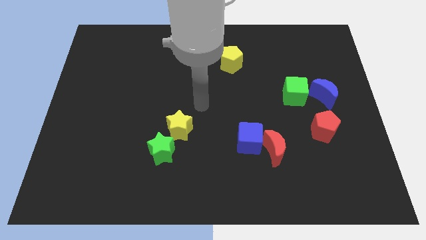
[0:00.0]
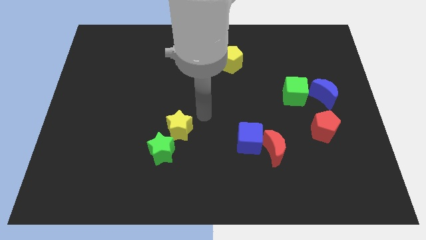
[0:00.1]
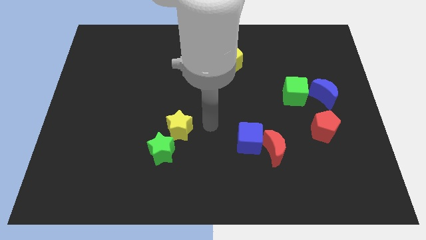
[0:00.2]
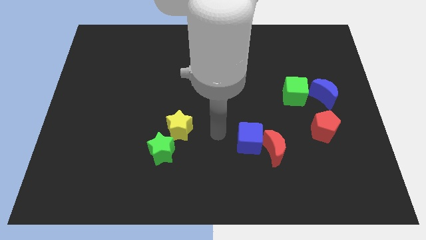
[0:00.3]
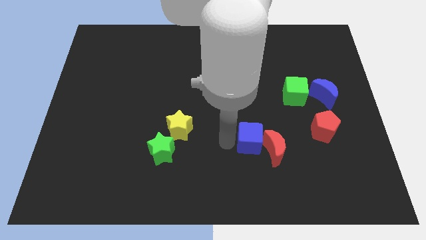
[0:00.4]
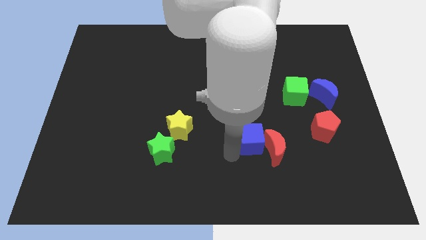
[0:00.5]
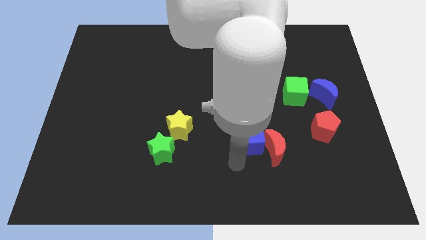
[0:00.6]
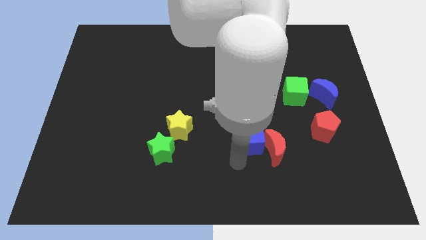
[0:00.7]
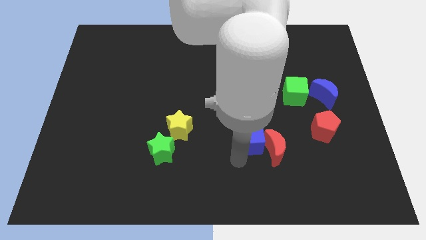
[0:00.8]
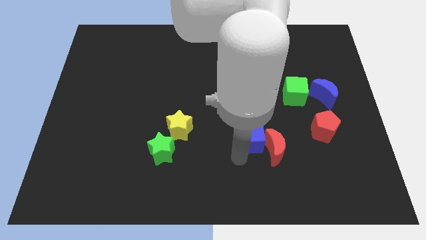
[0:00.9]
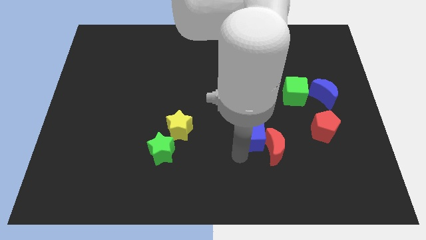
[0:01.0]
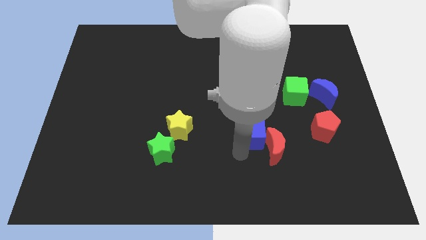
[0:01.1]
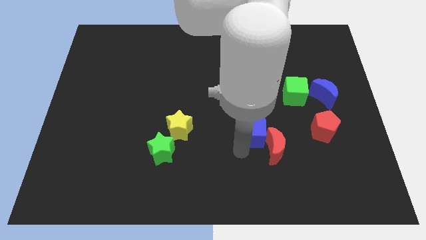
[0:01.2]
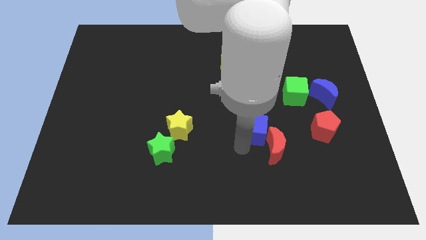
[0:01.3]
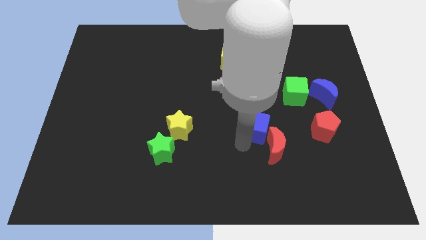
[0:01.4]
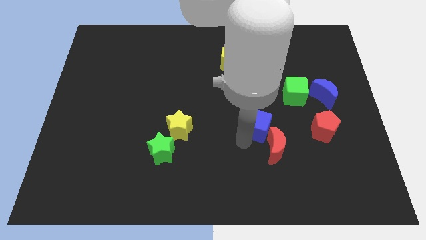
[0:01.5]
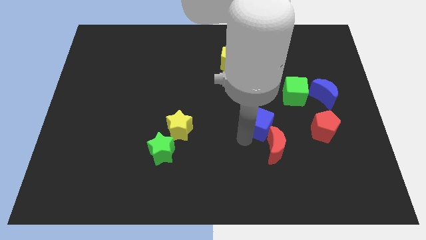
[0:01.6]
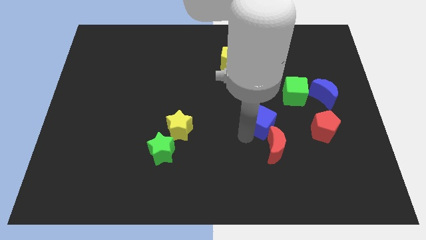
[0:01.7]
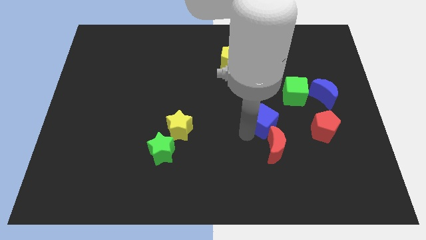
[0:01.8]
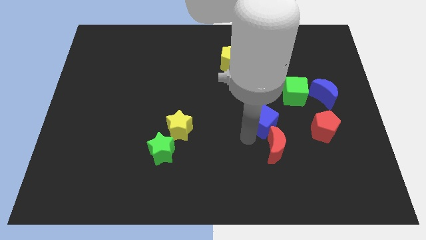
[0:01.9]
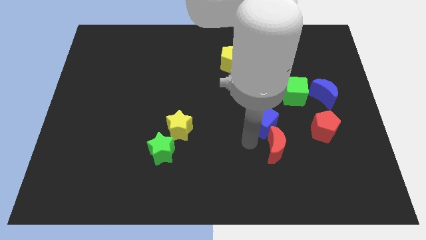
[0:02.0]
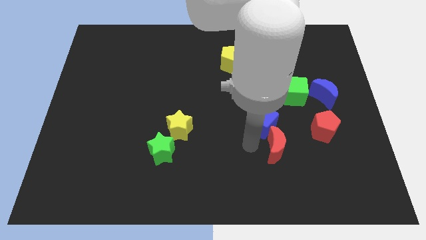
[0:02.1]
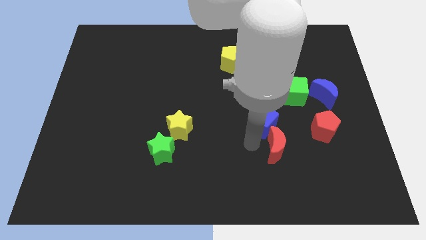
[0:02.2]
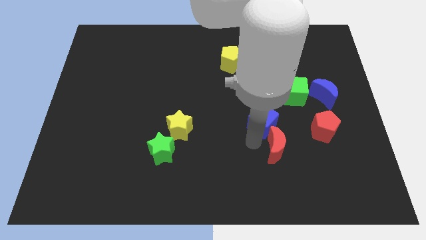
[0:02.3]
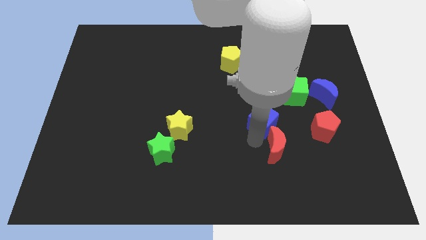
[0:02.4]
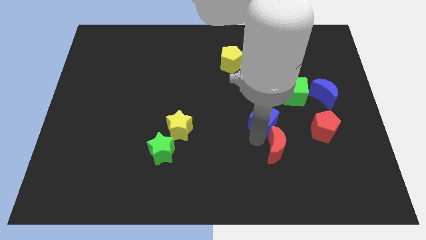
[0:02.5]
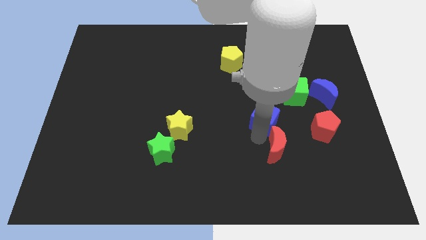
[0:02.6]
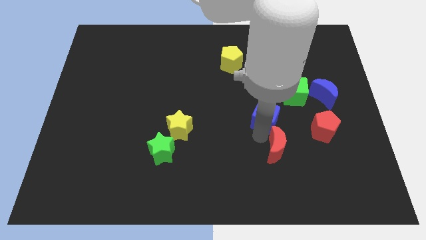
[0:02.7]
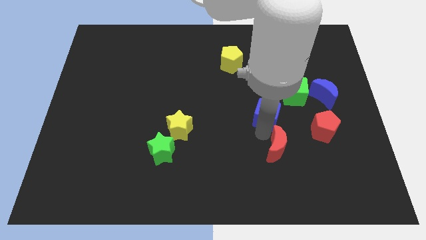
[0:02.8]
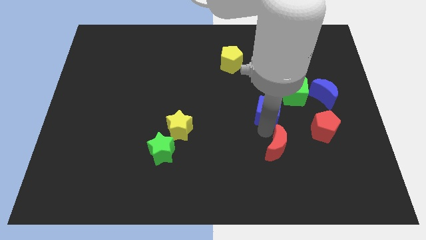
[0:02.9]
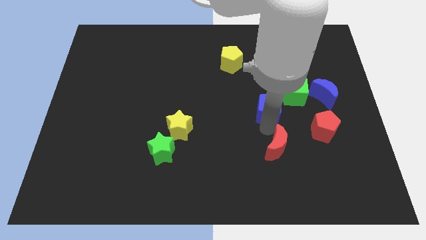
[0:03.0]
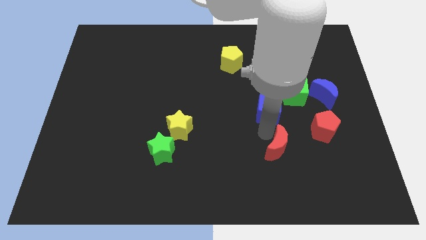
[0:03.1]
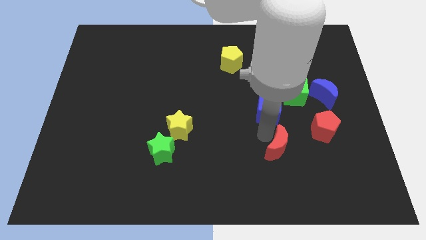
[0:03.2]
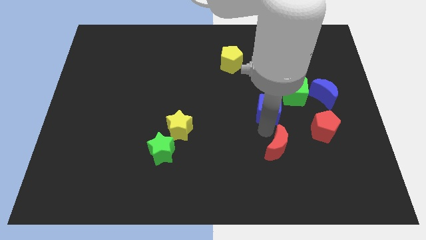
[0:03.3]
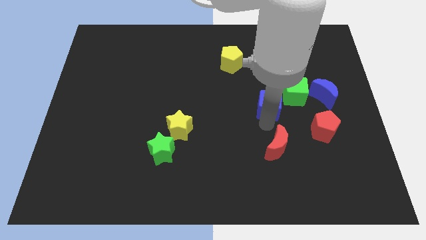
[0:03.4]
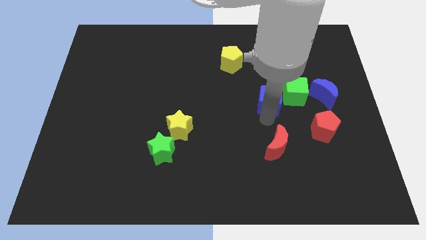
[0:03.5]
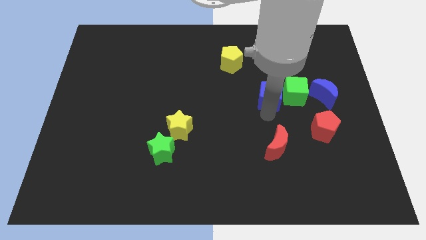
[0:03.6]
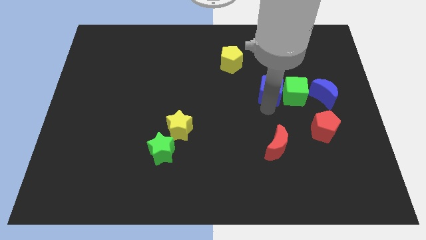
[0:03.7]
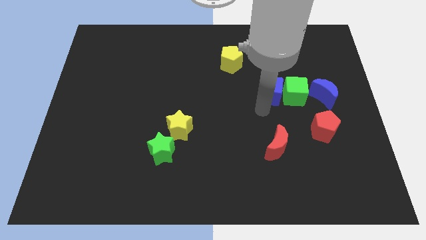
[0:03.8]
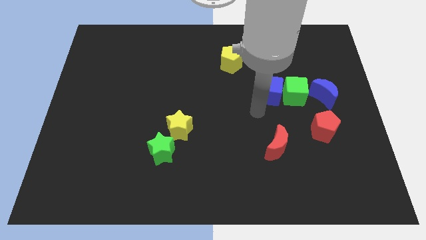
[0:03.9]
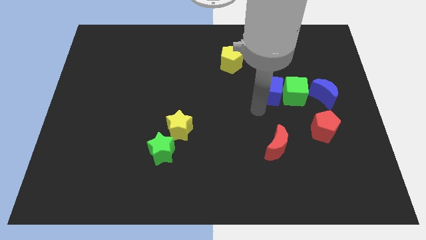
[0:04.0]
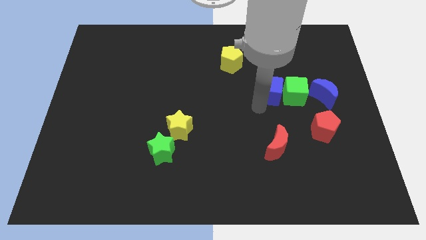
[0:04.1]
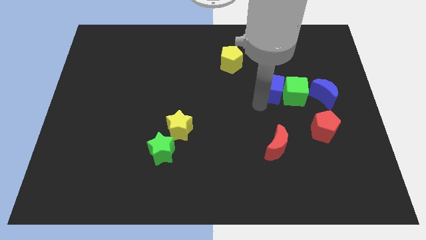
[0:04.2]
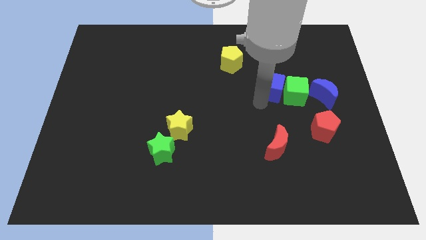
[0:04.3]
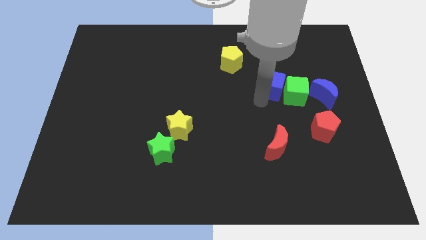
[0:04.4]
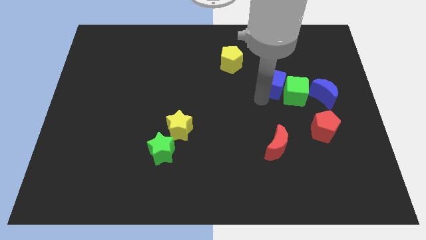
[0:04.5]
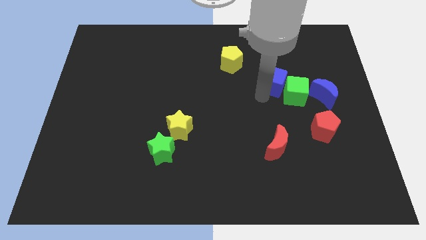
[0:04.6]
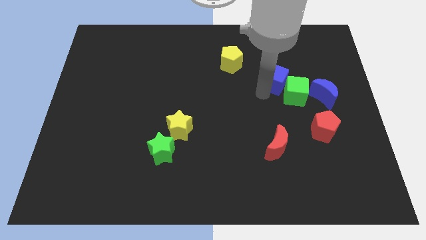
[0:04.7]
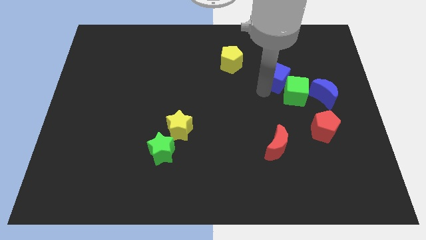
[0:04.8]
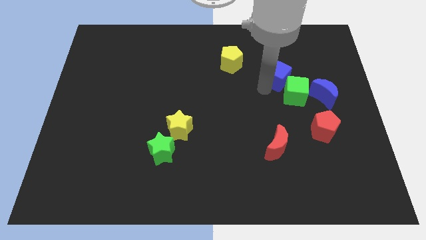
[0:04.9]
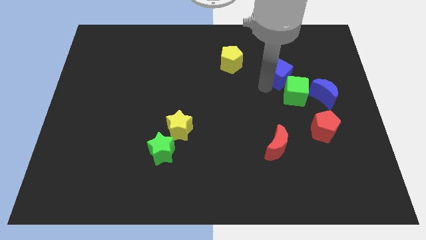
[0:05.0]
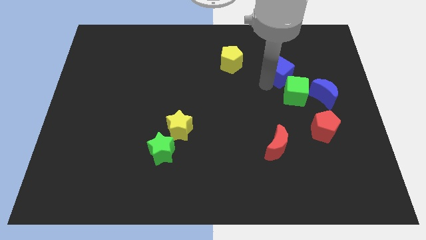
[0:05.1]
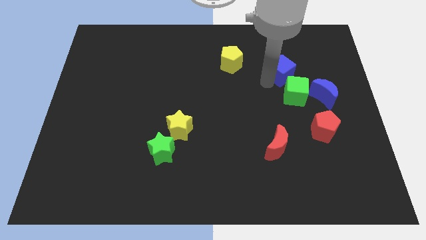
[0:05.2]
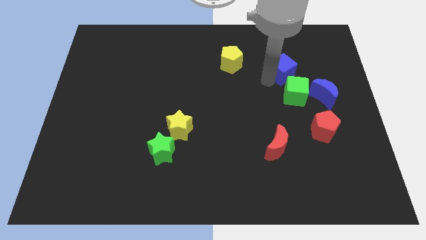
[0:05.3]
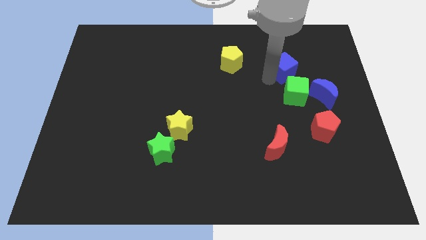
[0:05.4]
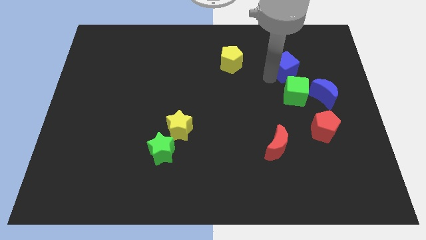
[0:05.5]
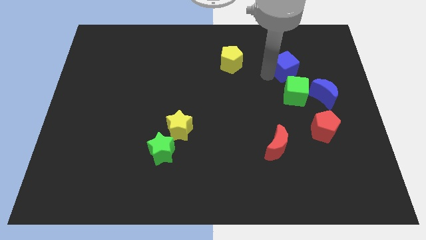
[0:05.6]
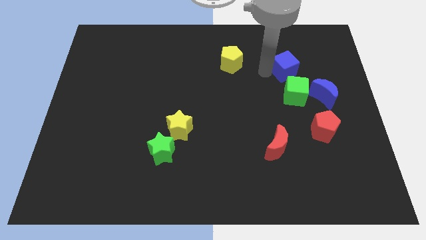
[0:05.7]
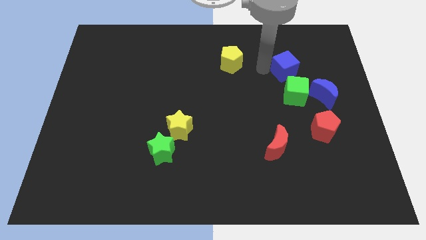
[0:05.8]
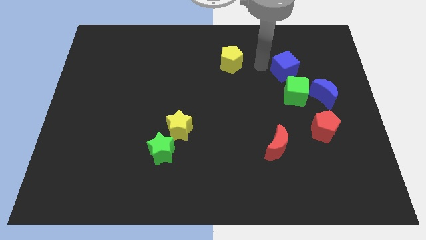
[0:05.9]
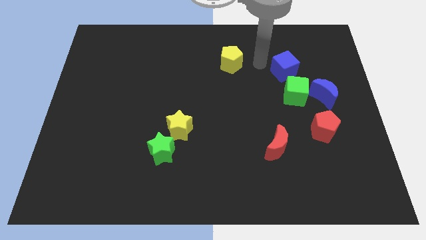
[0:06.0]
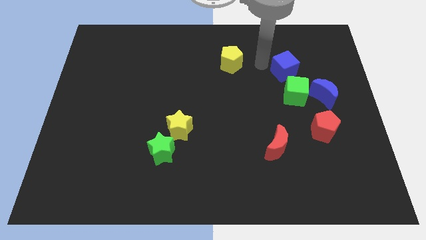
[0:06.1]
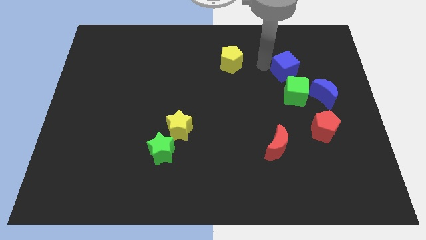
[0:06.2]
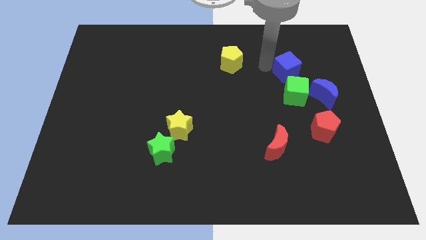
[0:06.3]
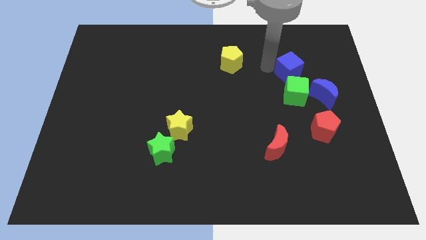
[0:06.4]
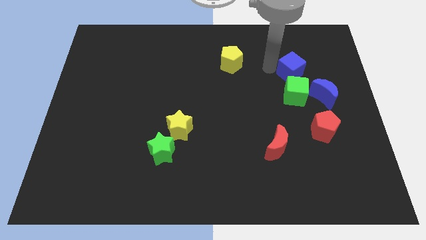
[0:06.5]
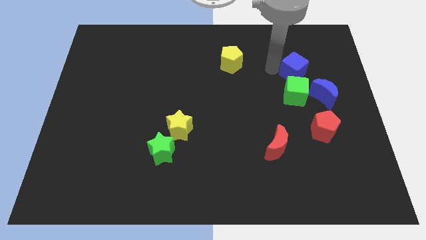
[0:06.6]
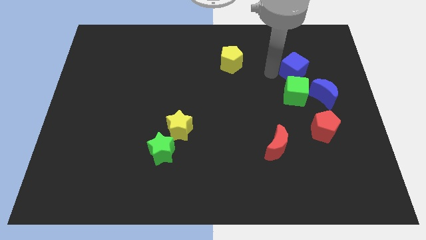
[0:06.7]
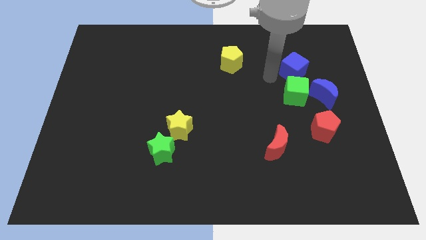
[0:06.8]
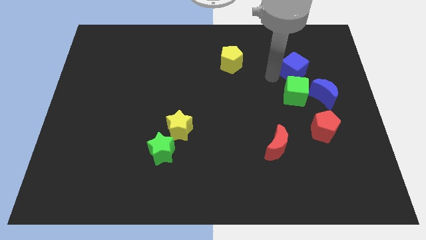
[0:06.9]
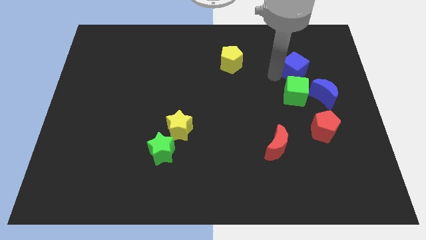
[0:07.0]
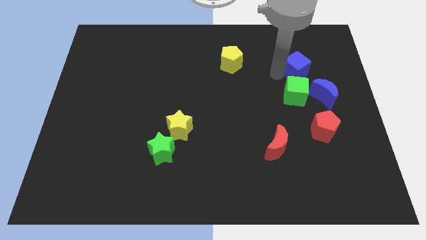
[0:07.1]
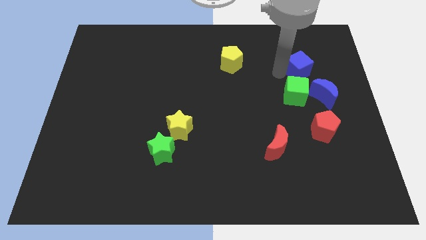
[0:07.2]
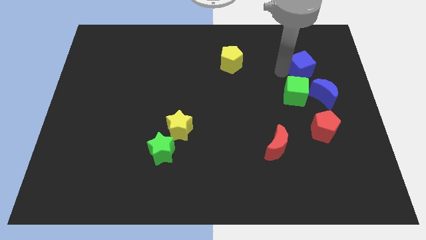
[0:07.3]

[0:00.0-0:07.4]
push the blue cube to the top side of the blue moon

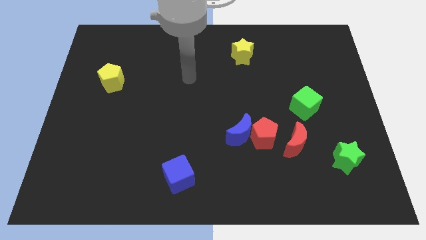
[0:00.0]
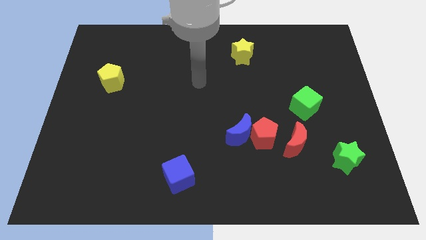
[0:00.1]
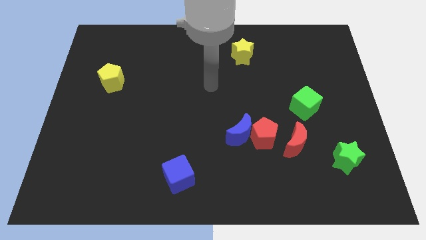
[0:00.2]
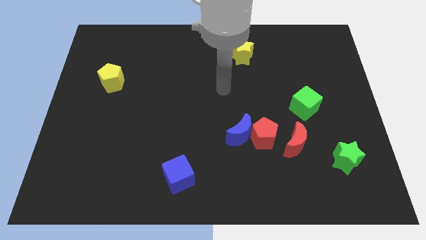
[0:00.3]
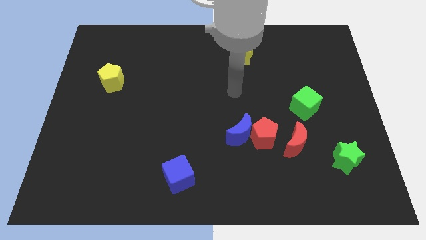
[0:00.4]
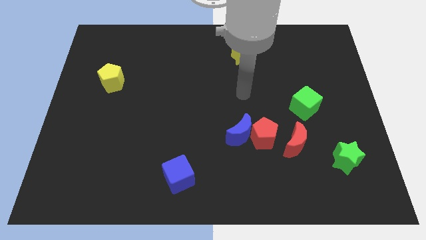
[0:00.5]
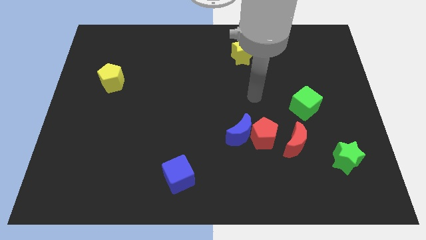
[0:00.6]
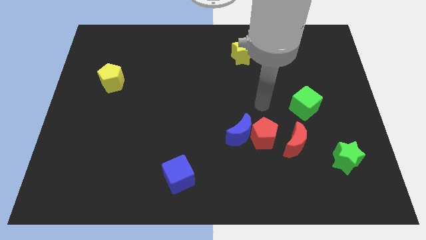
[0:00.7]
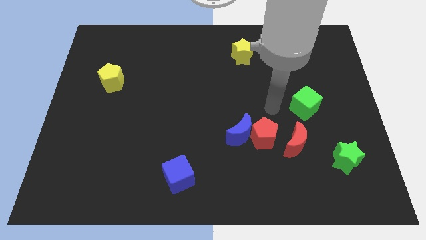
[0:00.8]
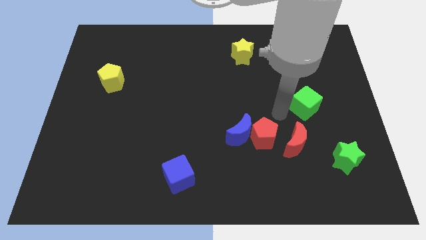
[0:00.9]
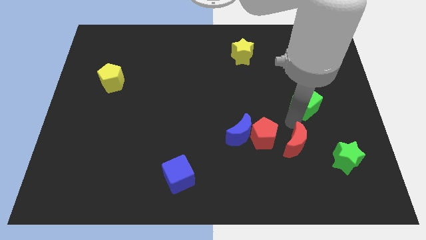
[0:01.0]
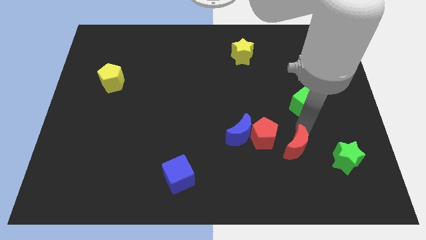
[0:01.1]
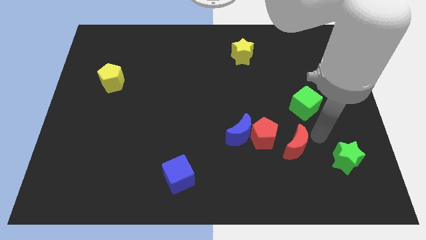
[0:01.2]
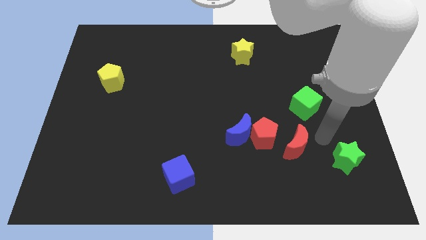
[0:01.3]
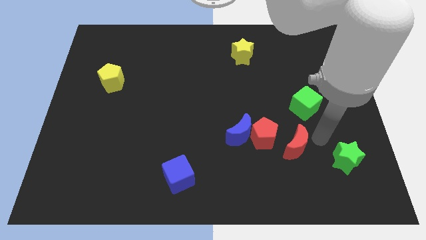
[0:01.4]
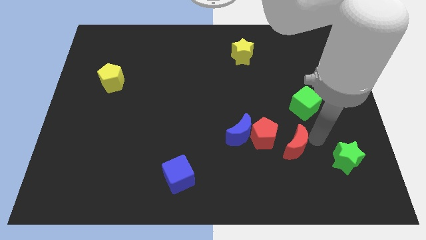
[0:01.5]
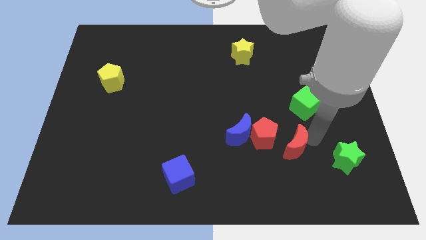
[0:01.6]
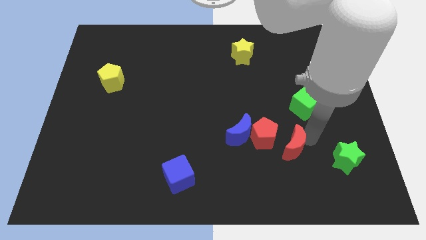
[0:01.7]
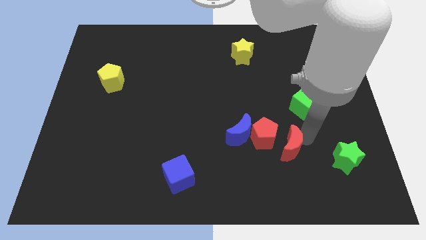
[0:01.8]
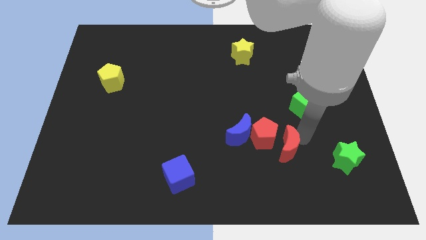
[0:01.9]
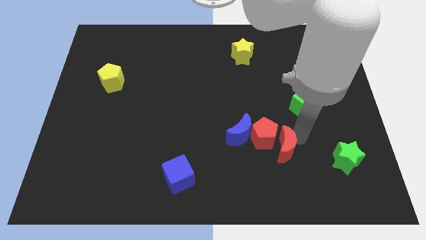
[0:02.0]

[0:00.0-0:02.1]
slide the red moon to the bottom right of the blue moon
